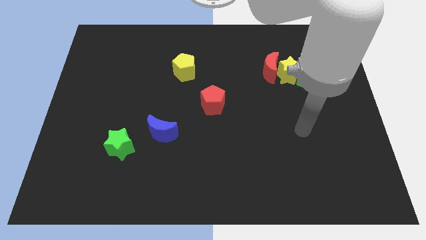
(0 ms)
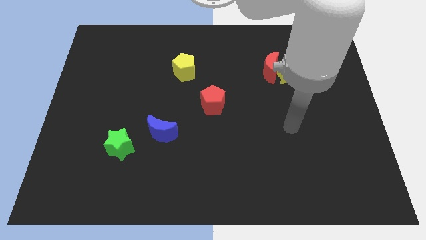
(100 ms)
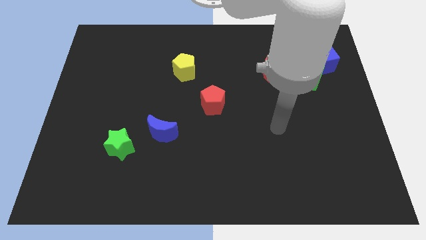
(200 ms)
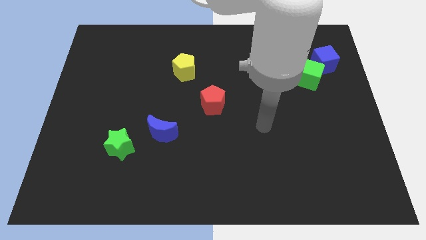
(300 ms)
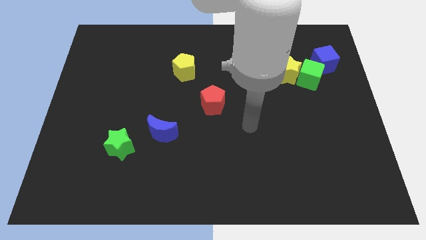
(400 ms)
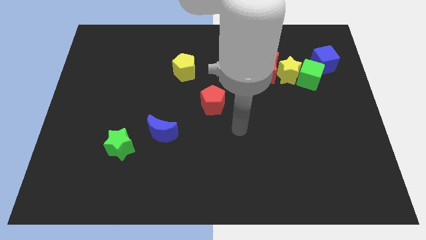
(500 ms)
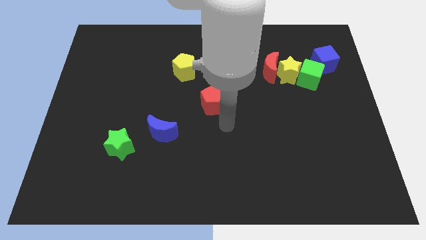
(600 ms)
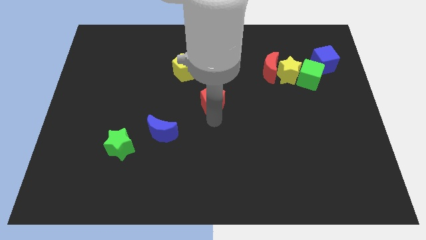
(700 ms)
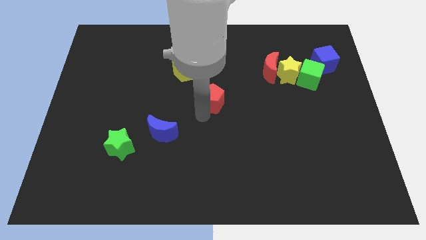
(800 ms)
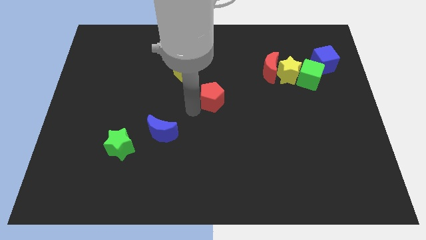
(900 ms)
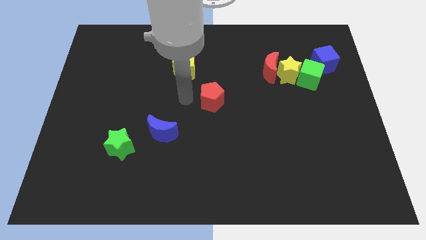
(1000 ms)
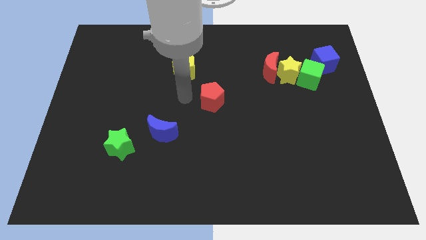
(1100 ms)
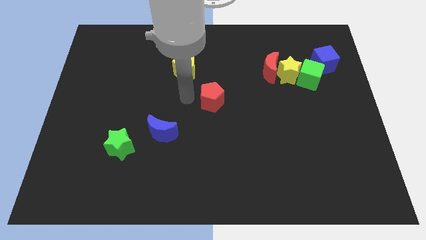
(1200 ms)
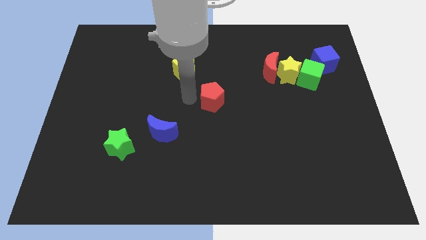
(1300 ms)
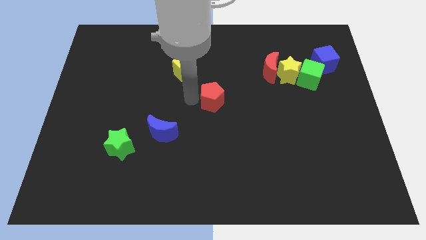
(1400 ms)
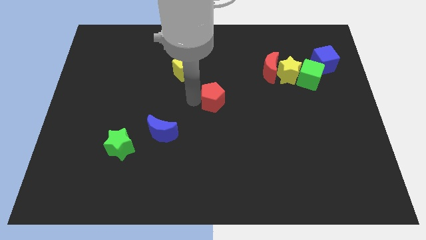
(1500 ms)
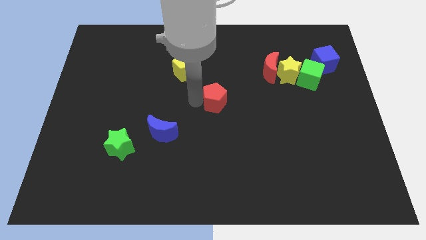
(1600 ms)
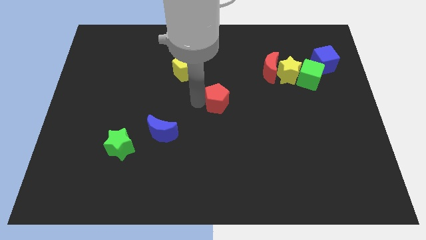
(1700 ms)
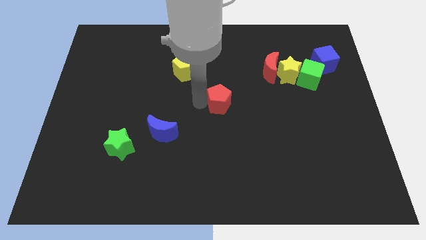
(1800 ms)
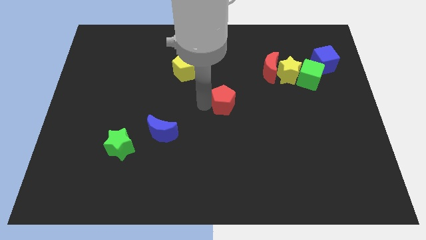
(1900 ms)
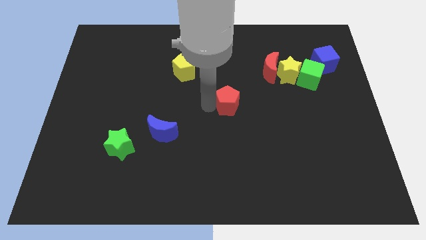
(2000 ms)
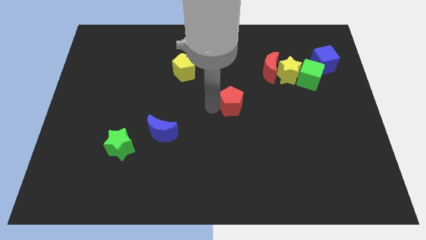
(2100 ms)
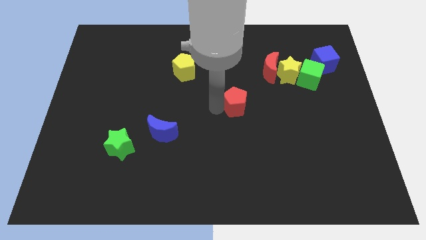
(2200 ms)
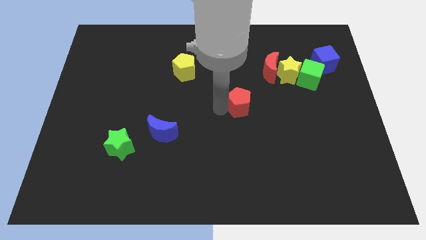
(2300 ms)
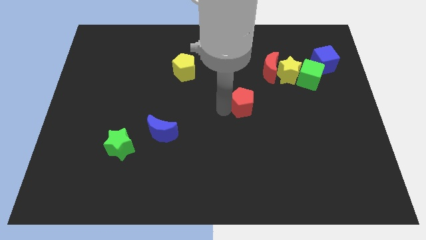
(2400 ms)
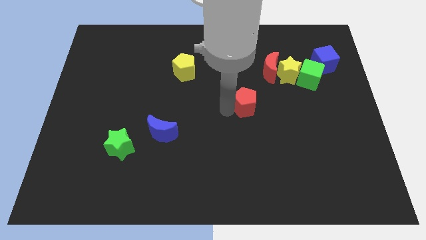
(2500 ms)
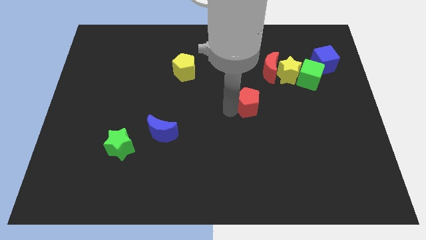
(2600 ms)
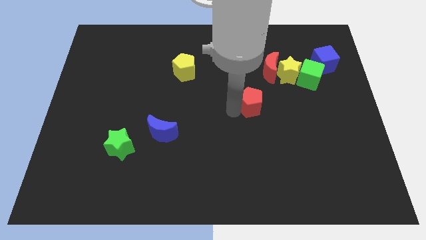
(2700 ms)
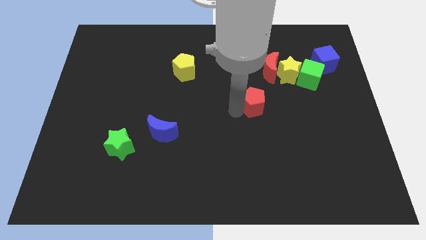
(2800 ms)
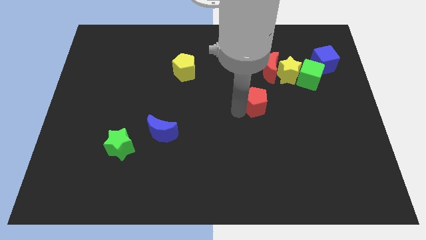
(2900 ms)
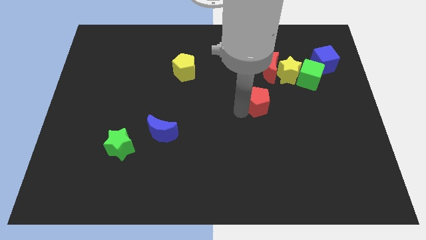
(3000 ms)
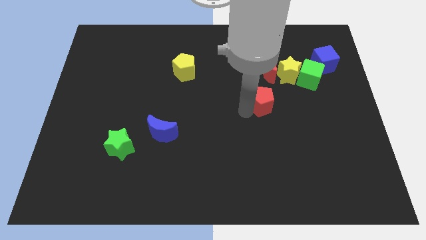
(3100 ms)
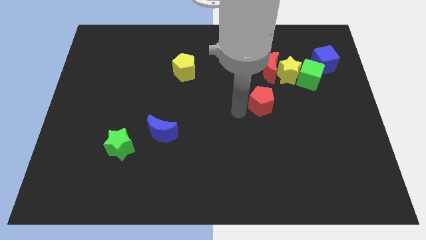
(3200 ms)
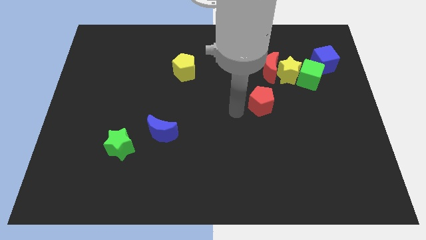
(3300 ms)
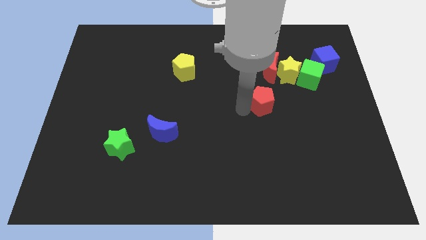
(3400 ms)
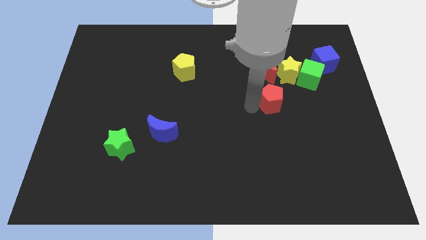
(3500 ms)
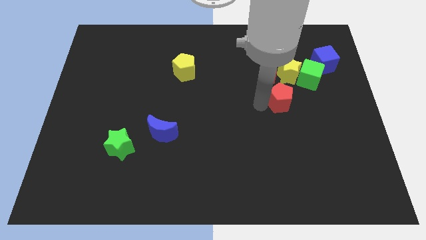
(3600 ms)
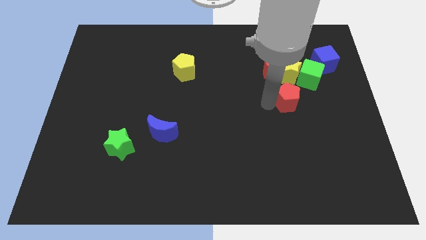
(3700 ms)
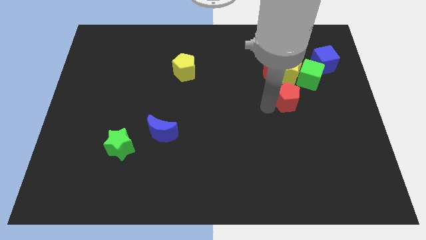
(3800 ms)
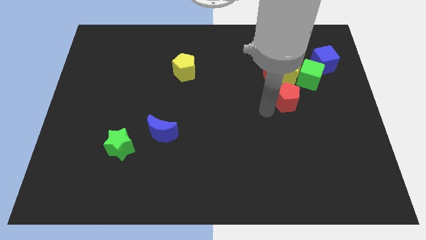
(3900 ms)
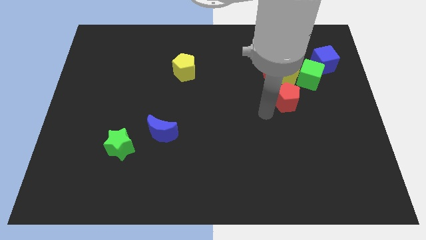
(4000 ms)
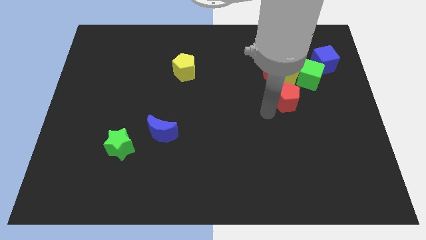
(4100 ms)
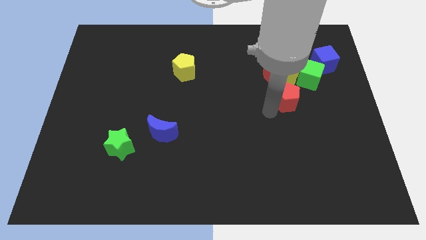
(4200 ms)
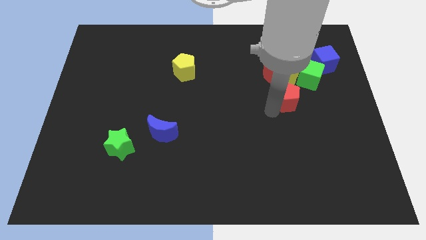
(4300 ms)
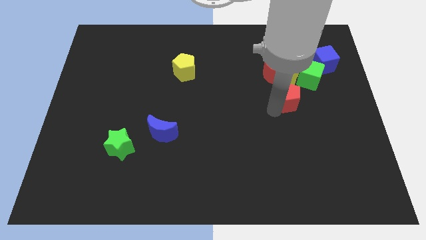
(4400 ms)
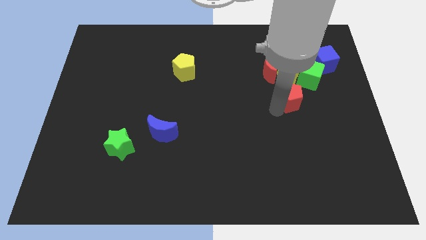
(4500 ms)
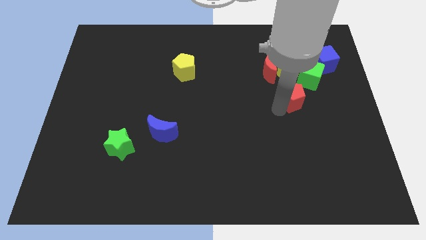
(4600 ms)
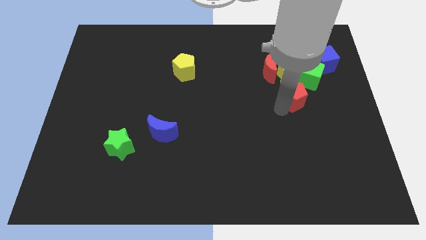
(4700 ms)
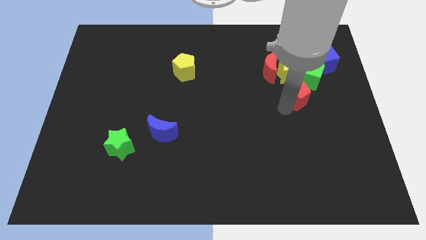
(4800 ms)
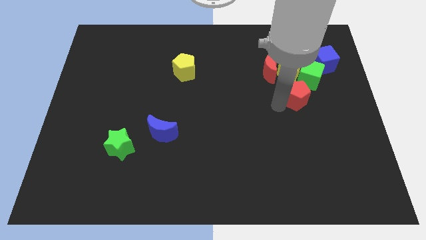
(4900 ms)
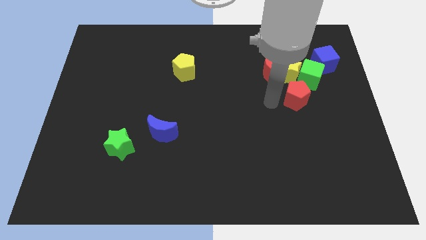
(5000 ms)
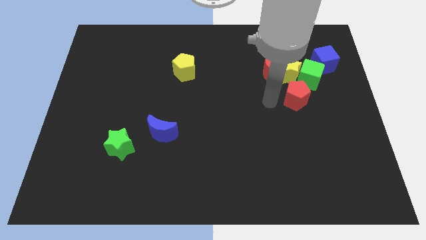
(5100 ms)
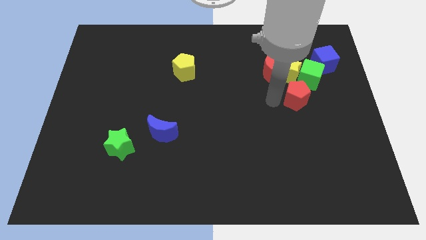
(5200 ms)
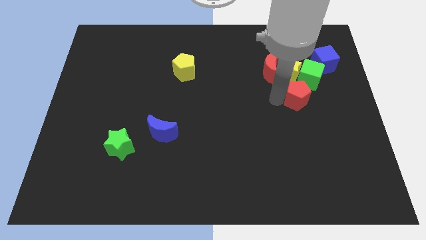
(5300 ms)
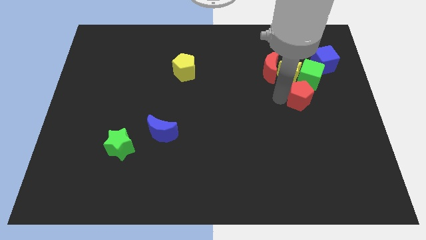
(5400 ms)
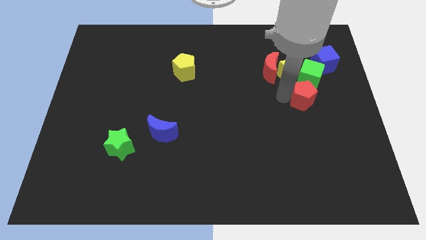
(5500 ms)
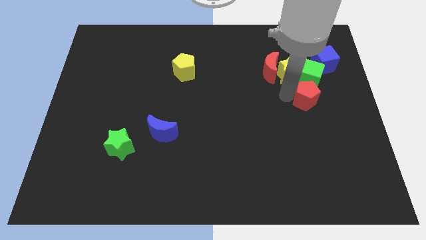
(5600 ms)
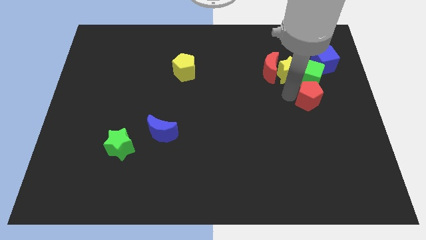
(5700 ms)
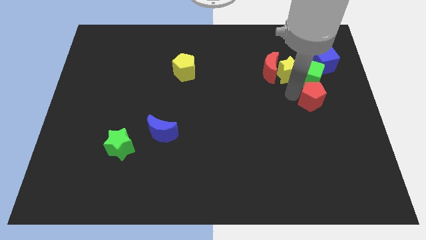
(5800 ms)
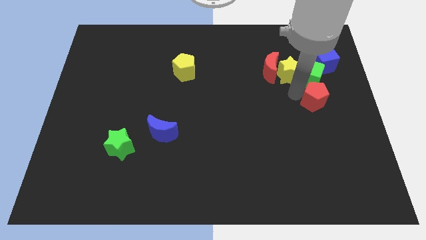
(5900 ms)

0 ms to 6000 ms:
push the red pentagon to the bottom side of the blue cube

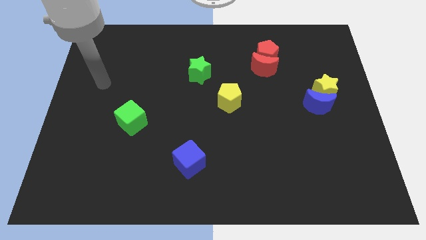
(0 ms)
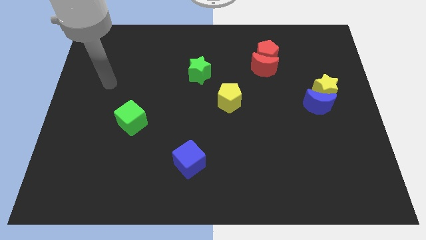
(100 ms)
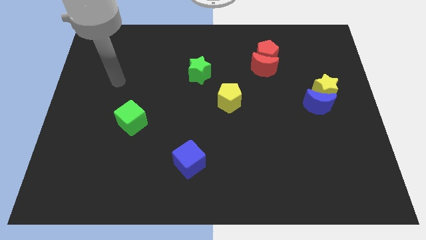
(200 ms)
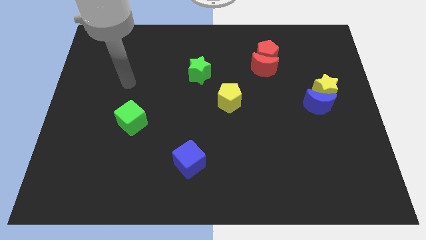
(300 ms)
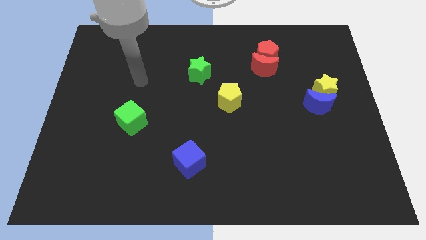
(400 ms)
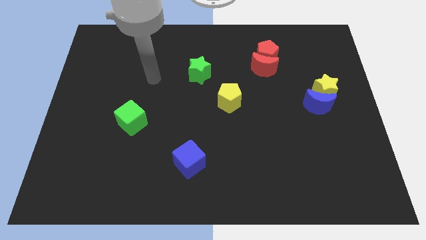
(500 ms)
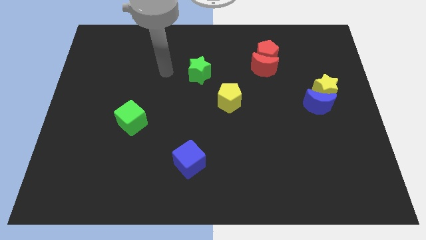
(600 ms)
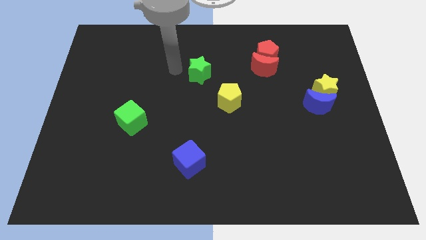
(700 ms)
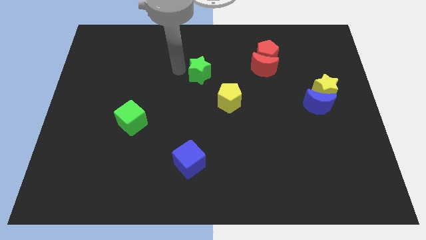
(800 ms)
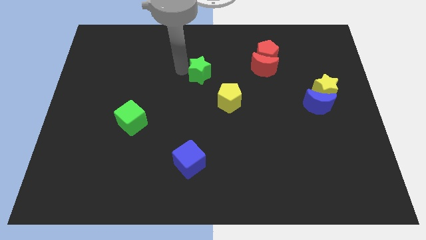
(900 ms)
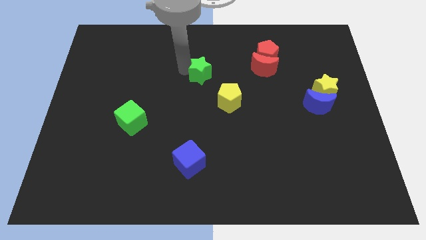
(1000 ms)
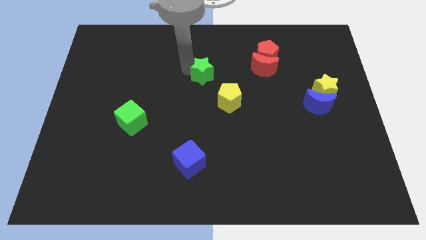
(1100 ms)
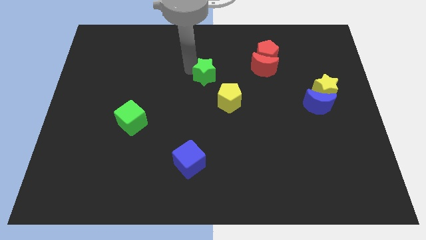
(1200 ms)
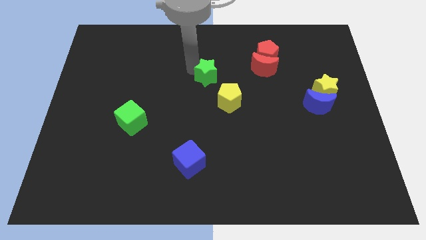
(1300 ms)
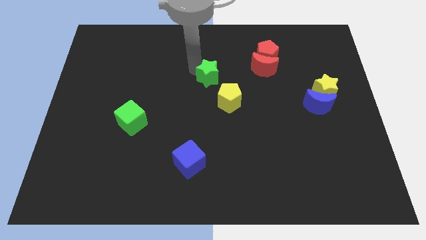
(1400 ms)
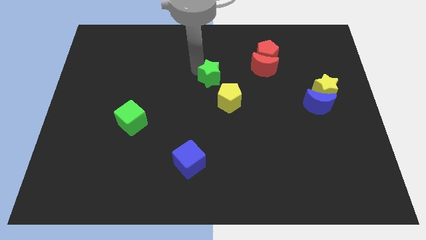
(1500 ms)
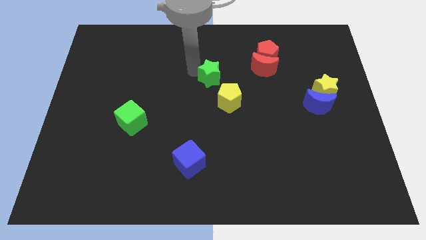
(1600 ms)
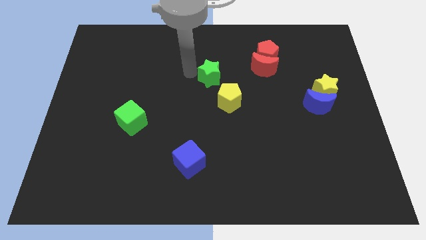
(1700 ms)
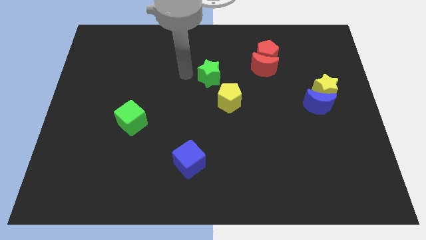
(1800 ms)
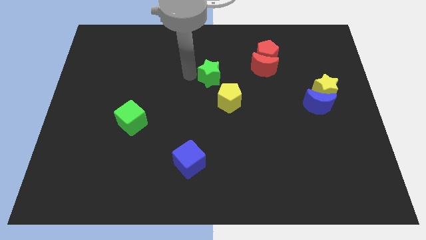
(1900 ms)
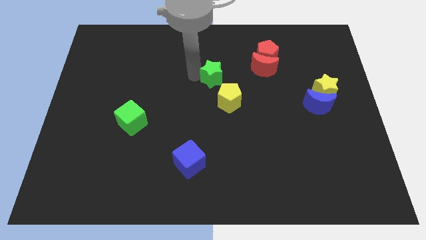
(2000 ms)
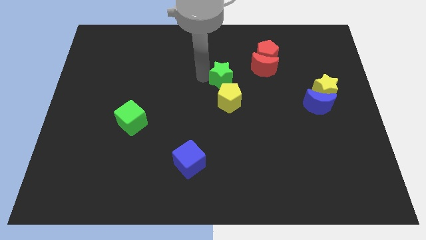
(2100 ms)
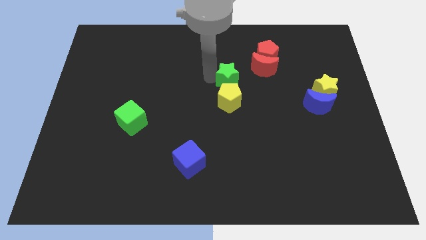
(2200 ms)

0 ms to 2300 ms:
slide the green star diagonally down and to the left of the red moon
